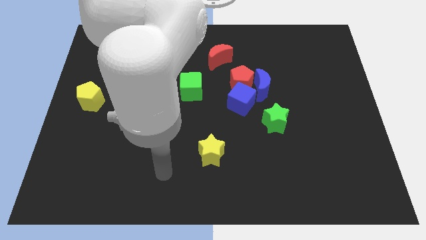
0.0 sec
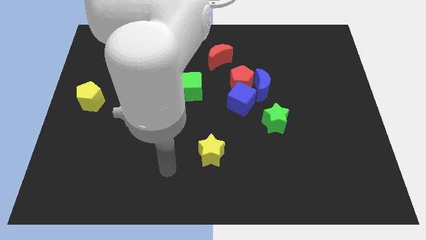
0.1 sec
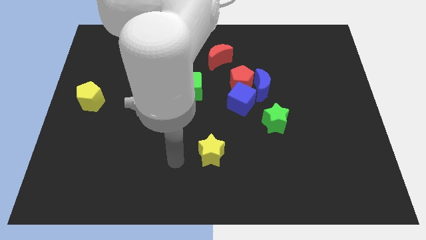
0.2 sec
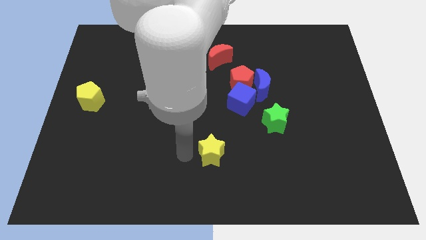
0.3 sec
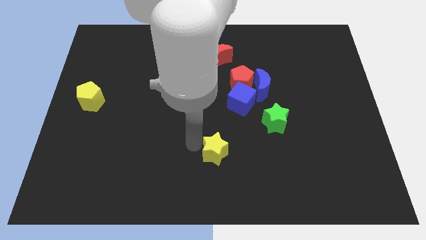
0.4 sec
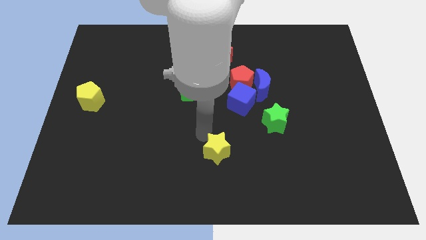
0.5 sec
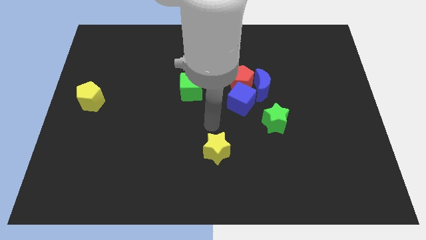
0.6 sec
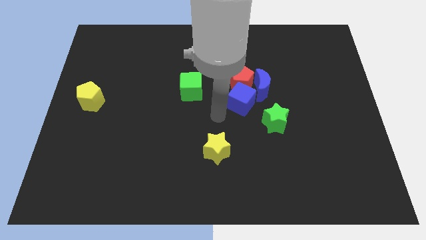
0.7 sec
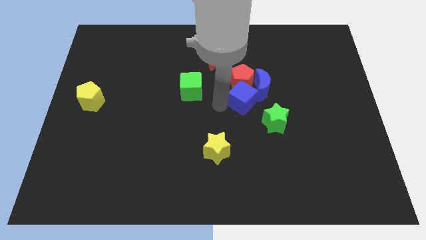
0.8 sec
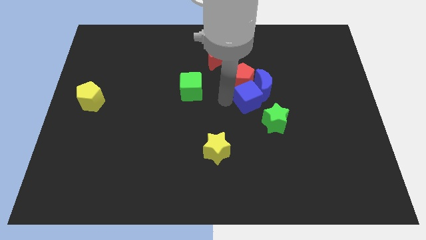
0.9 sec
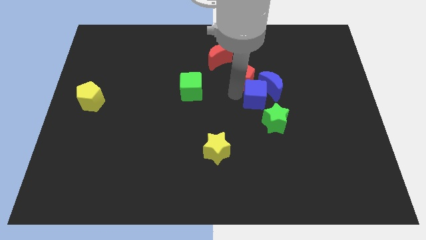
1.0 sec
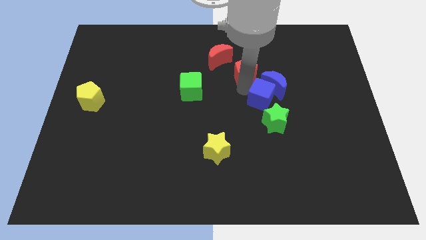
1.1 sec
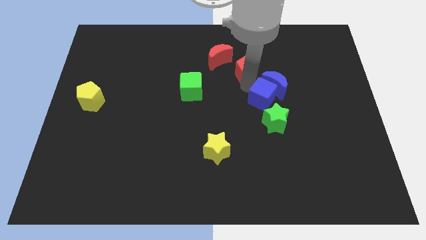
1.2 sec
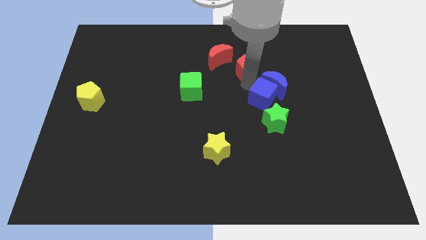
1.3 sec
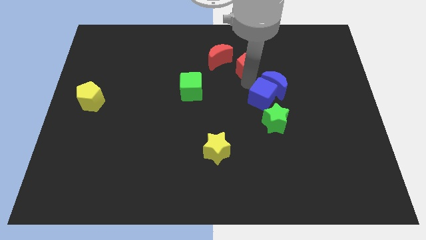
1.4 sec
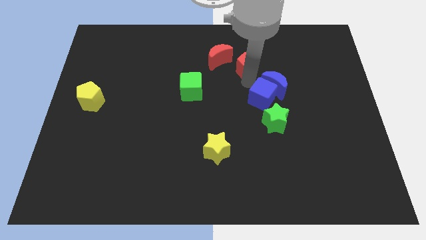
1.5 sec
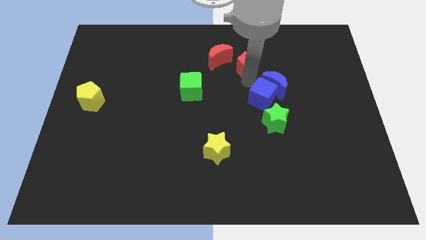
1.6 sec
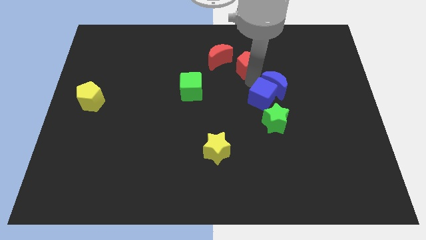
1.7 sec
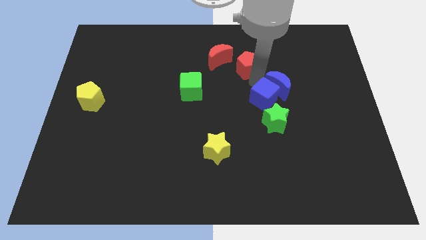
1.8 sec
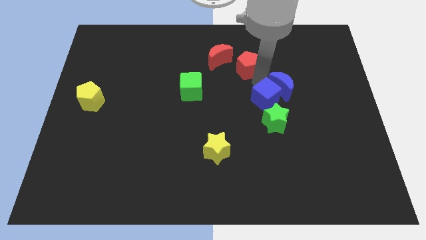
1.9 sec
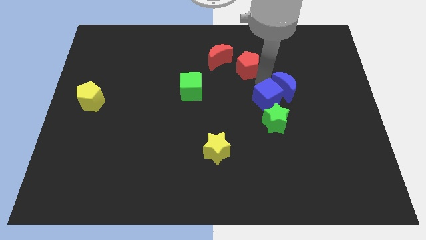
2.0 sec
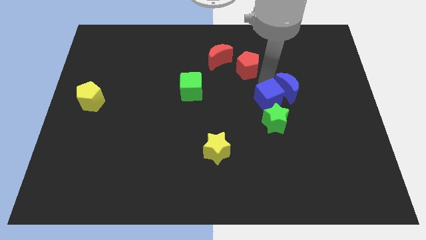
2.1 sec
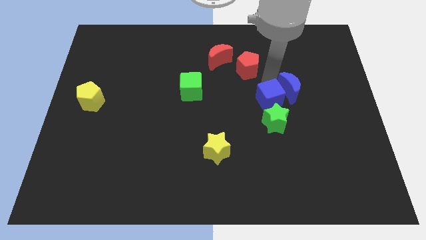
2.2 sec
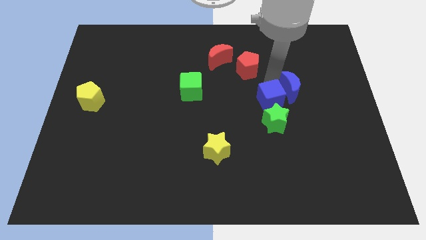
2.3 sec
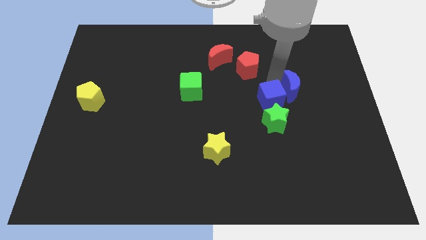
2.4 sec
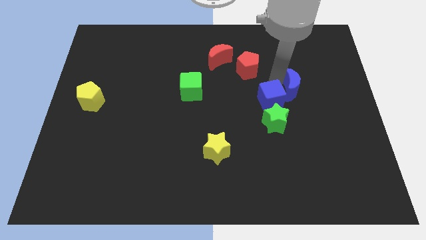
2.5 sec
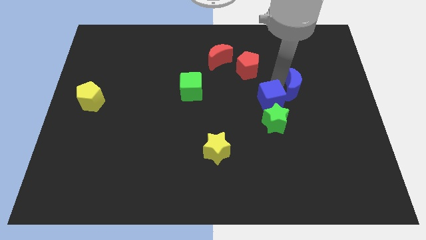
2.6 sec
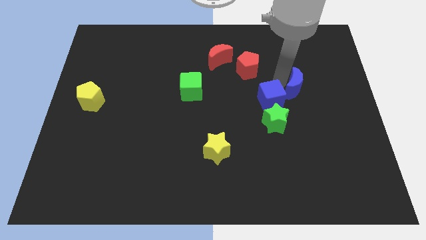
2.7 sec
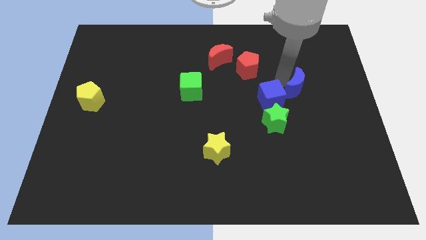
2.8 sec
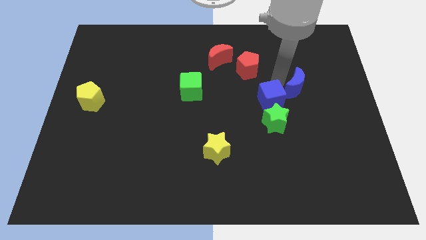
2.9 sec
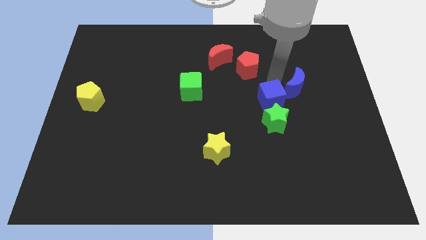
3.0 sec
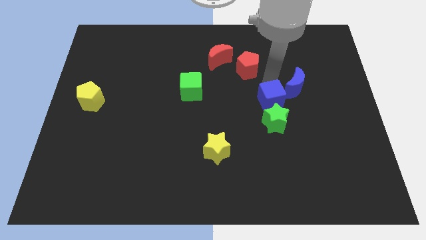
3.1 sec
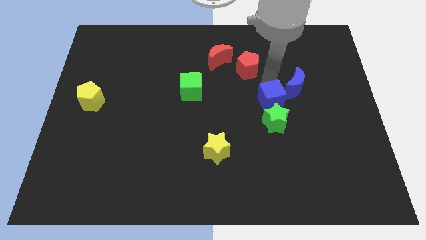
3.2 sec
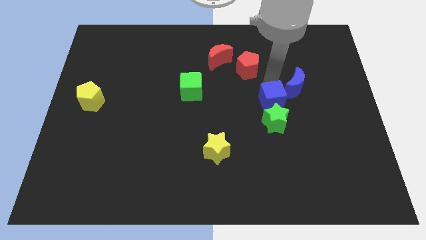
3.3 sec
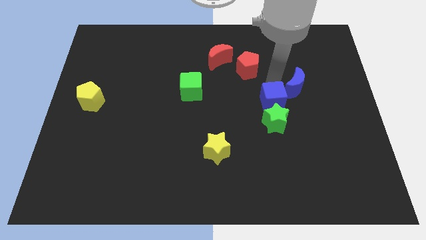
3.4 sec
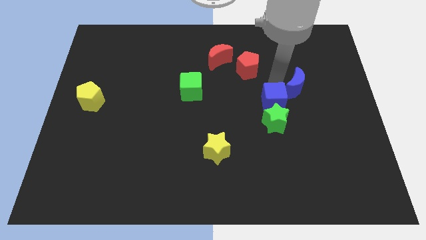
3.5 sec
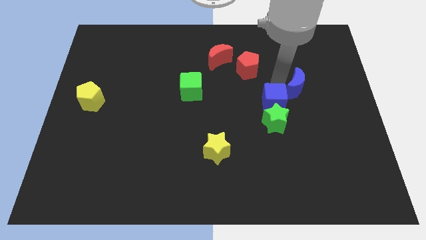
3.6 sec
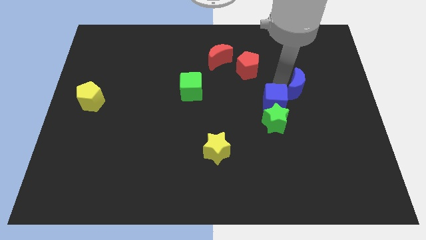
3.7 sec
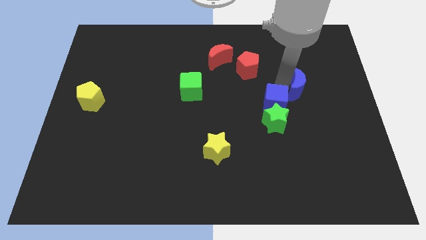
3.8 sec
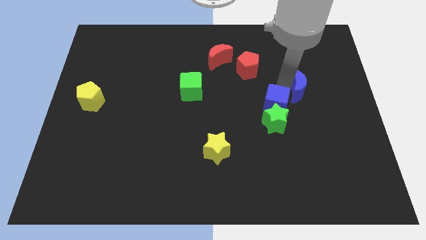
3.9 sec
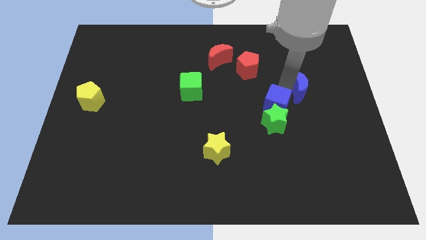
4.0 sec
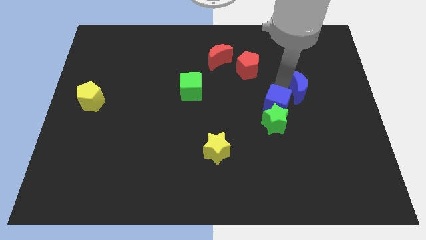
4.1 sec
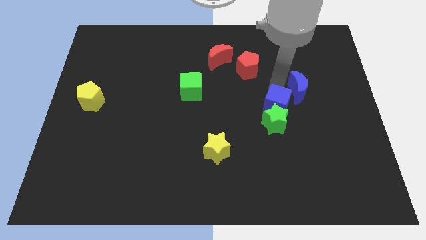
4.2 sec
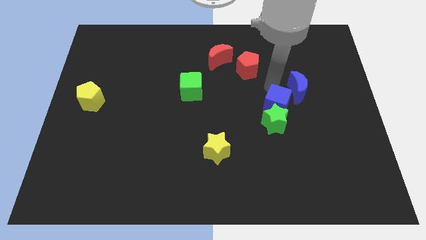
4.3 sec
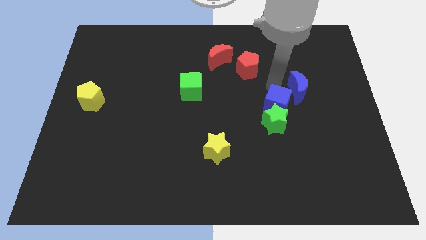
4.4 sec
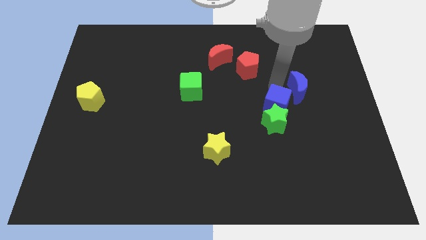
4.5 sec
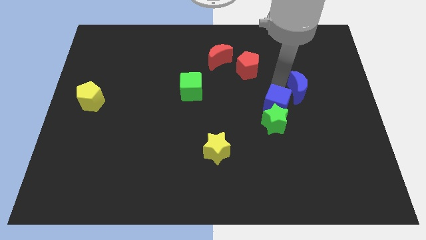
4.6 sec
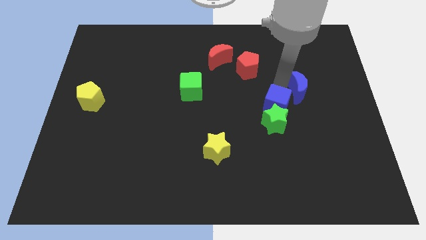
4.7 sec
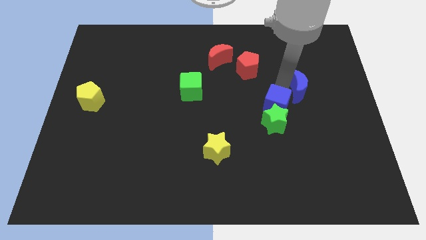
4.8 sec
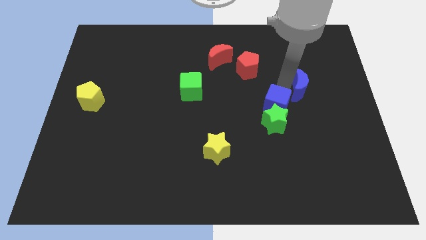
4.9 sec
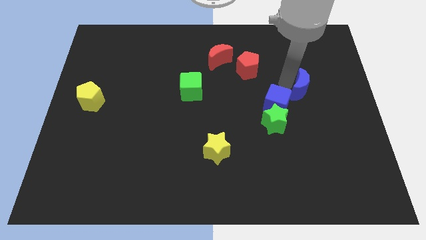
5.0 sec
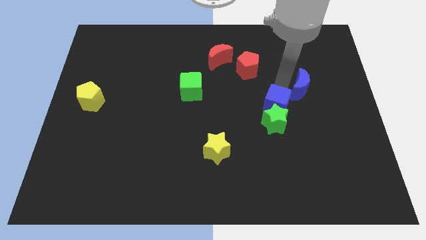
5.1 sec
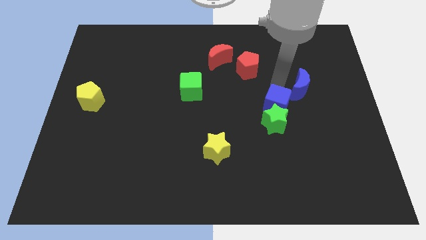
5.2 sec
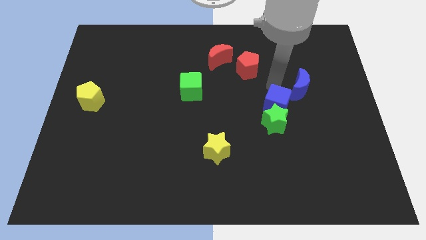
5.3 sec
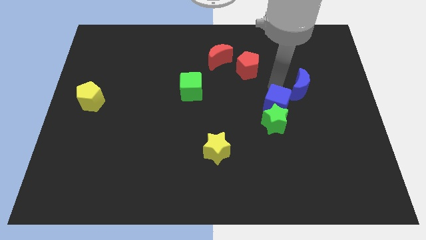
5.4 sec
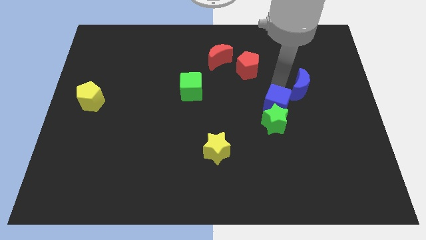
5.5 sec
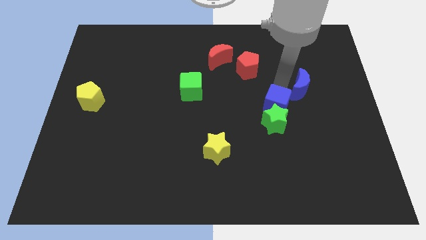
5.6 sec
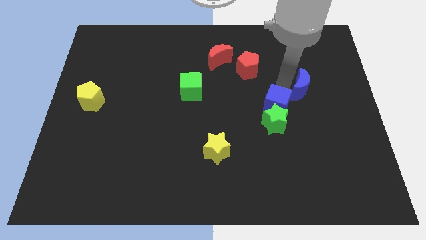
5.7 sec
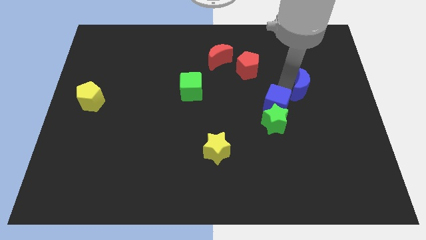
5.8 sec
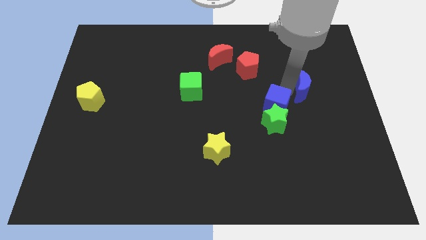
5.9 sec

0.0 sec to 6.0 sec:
separate the blue moon from the red pentagon and blue cube

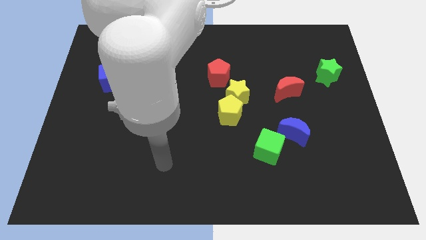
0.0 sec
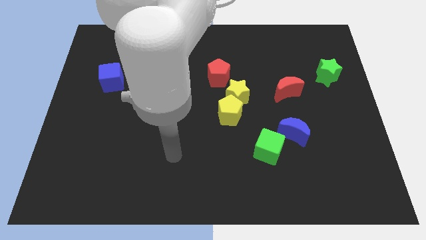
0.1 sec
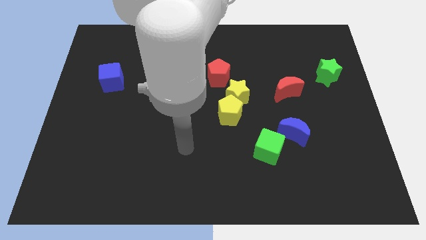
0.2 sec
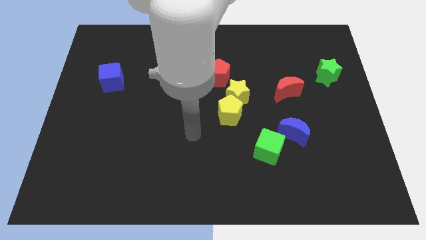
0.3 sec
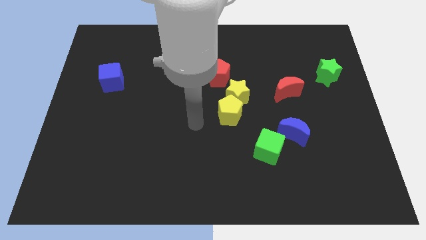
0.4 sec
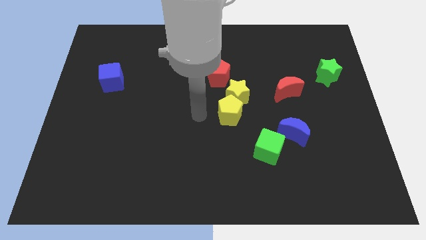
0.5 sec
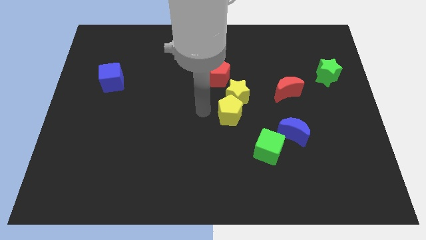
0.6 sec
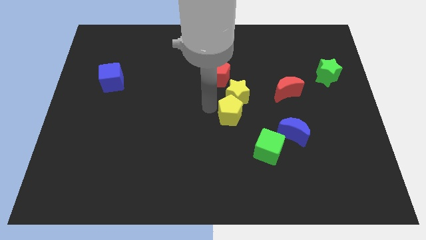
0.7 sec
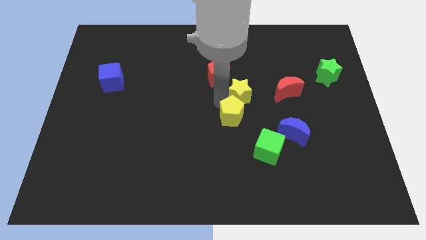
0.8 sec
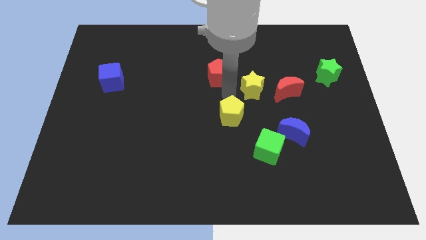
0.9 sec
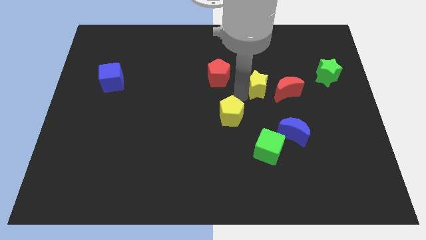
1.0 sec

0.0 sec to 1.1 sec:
move the yellow pentagon away from the yellow star

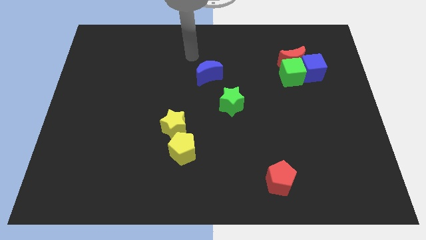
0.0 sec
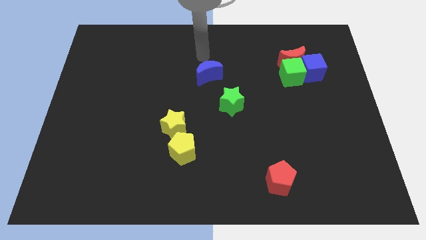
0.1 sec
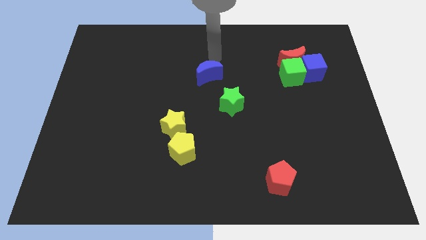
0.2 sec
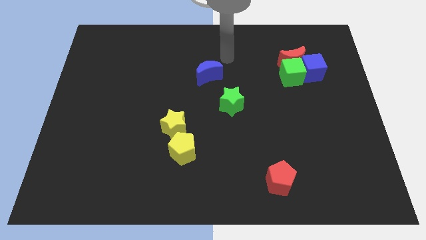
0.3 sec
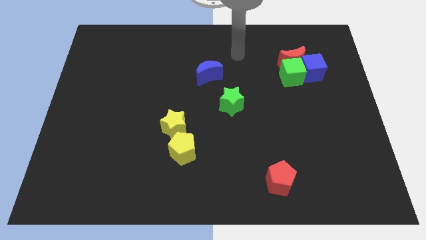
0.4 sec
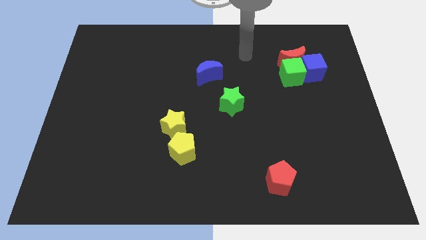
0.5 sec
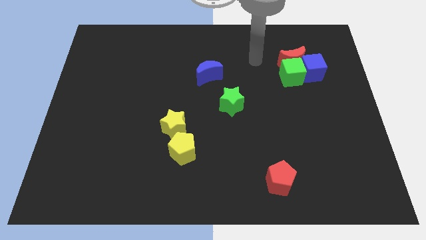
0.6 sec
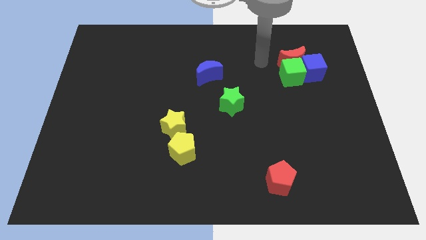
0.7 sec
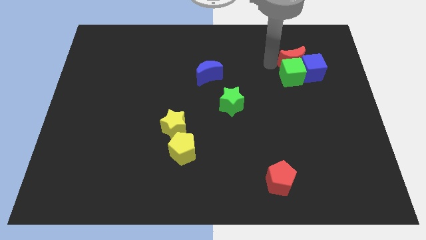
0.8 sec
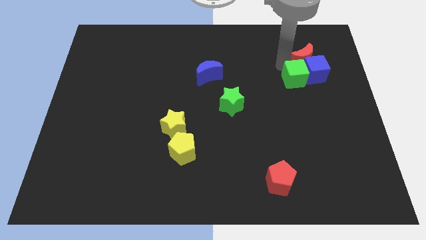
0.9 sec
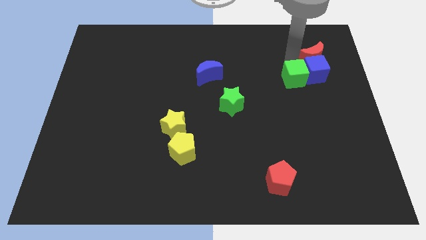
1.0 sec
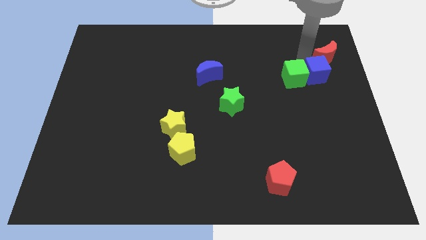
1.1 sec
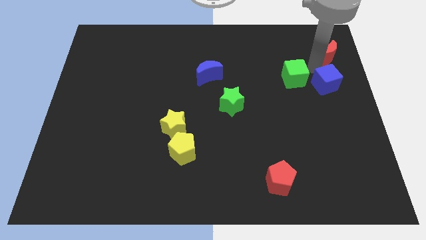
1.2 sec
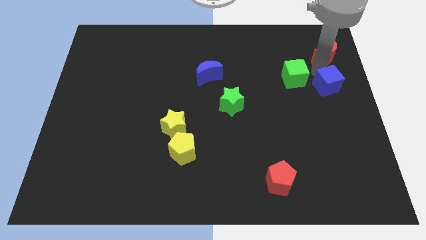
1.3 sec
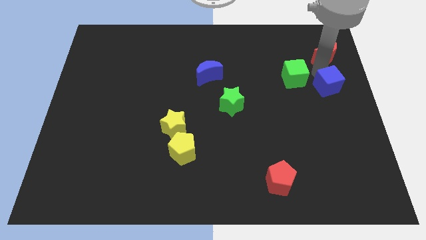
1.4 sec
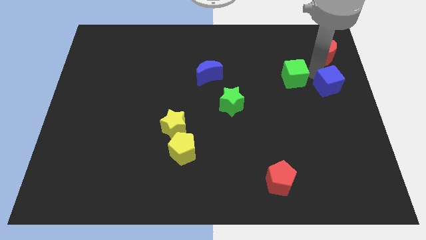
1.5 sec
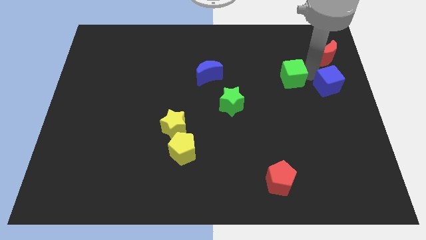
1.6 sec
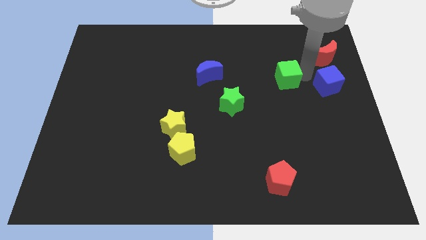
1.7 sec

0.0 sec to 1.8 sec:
pull the green cube apart from the red moon and blue cube

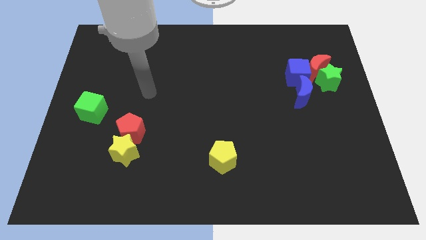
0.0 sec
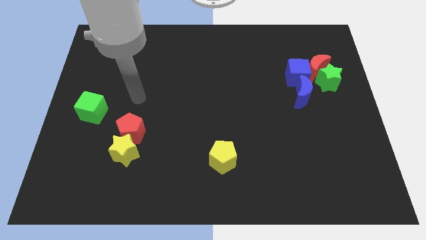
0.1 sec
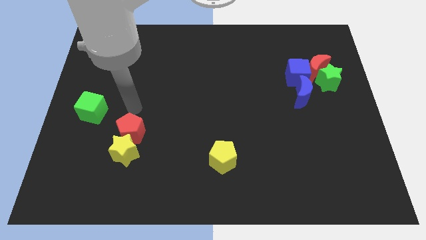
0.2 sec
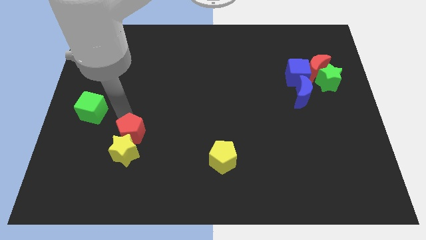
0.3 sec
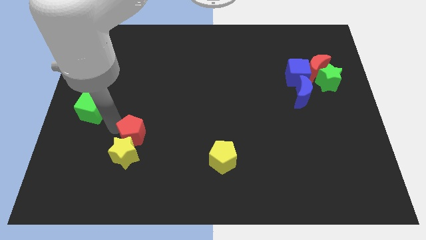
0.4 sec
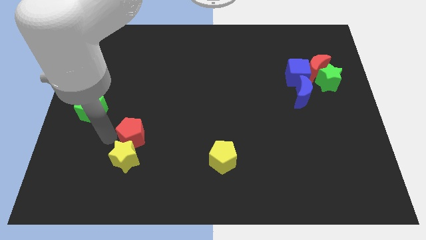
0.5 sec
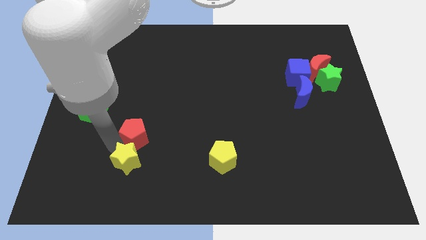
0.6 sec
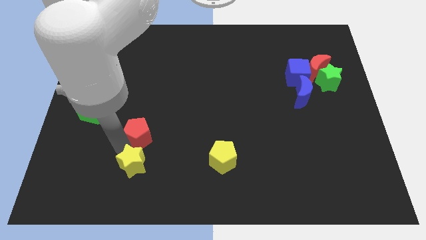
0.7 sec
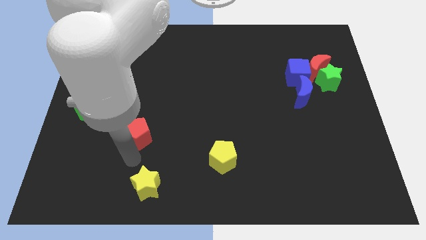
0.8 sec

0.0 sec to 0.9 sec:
move the red pentagon away from the yellow star
